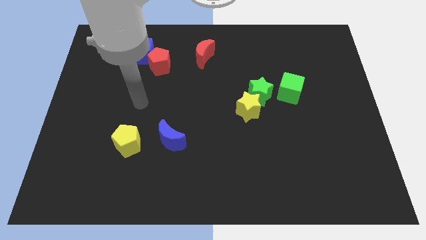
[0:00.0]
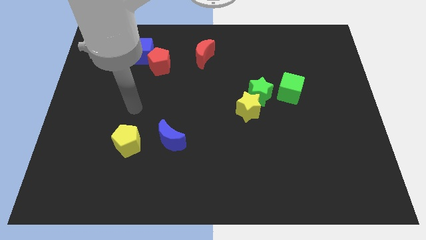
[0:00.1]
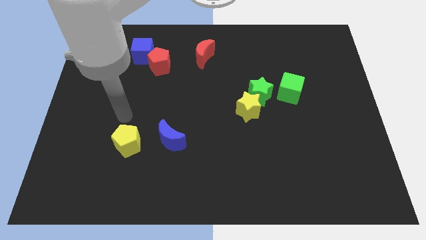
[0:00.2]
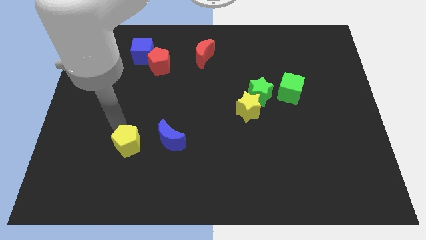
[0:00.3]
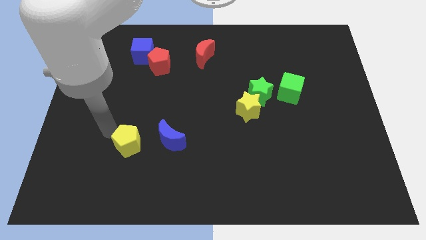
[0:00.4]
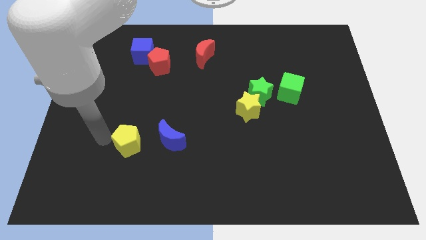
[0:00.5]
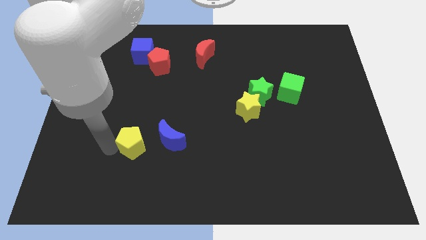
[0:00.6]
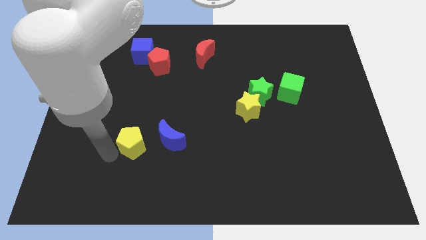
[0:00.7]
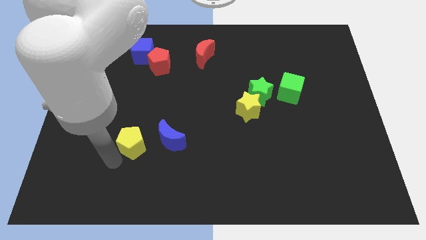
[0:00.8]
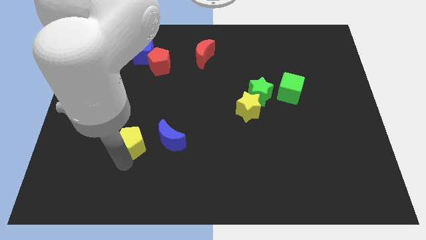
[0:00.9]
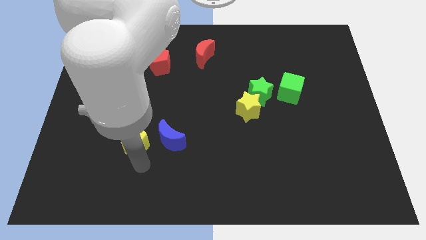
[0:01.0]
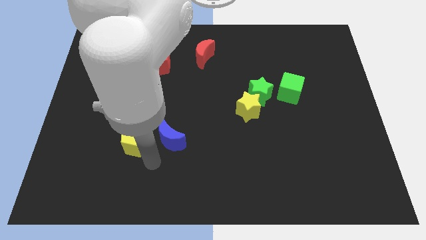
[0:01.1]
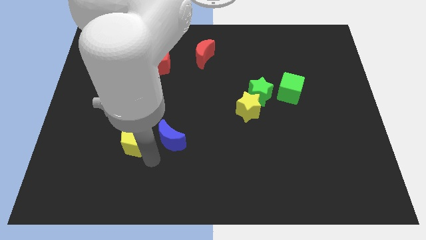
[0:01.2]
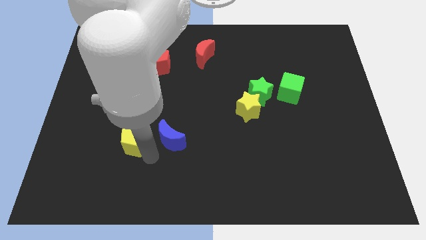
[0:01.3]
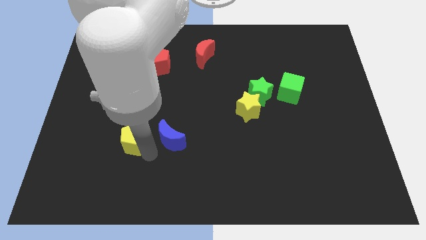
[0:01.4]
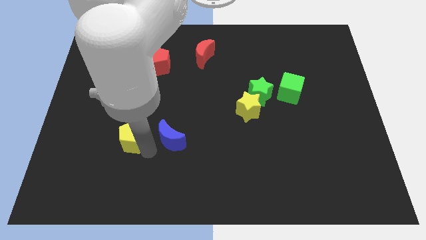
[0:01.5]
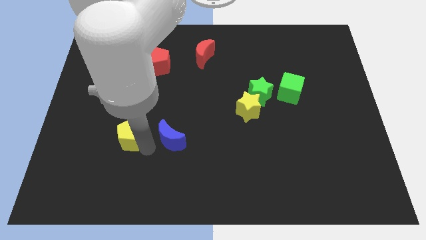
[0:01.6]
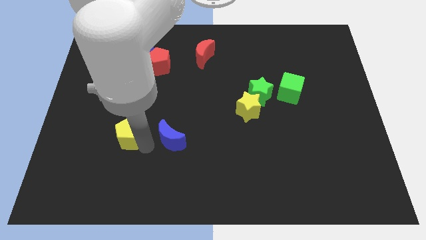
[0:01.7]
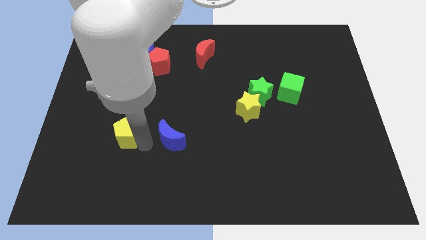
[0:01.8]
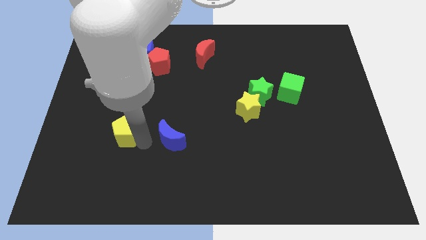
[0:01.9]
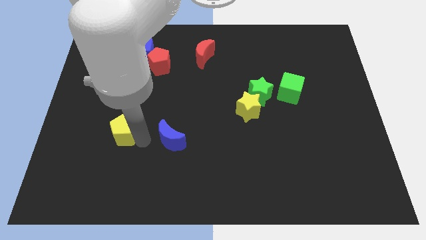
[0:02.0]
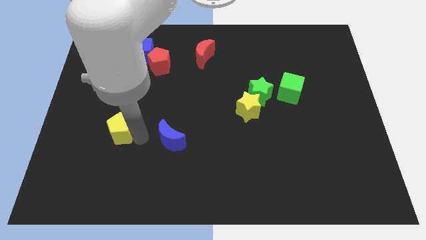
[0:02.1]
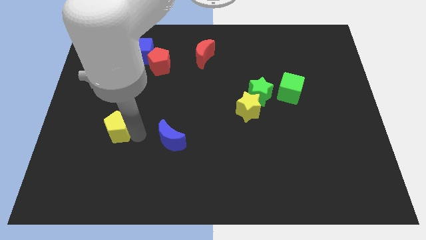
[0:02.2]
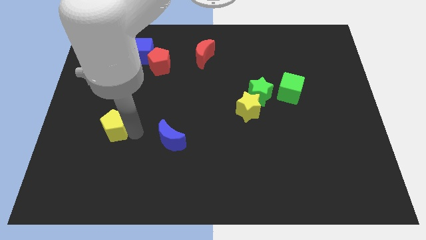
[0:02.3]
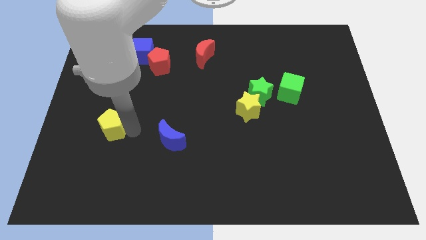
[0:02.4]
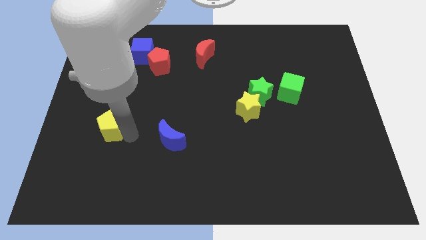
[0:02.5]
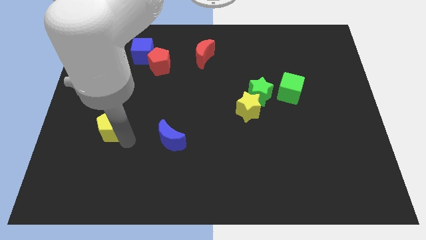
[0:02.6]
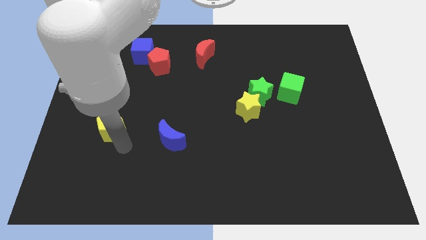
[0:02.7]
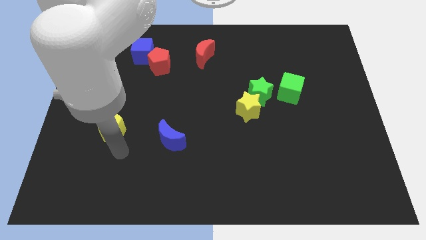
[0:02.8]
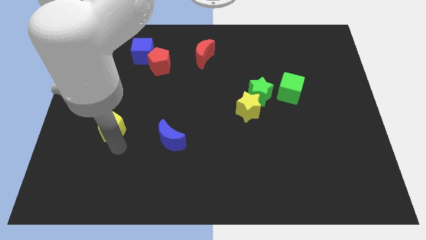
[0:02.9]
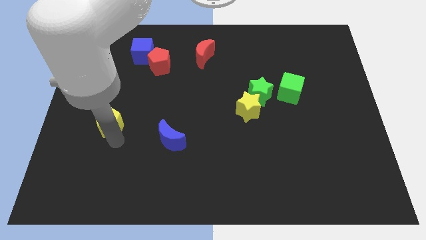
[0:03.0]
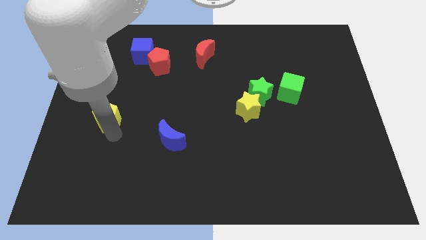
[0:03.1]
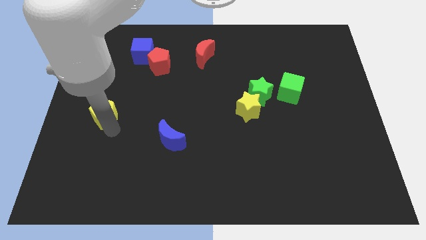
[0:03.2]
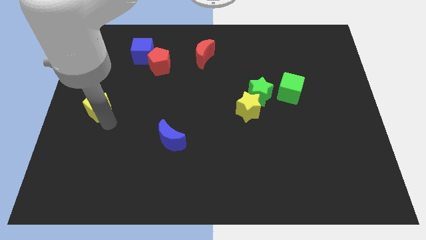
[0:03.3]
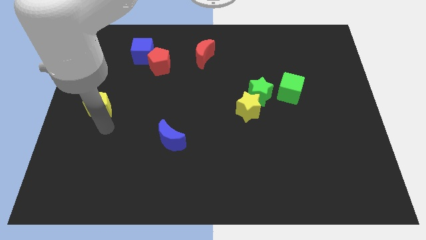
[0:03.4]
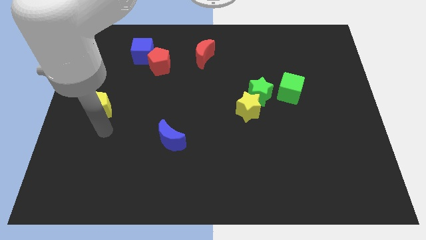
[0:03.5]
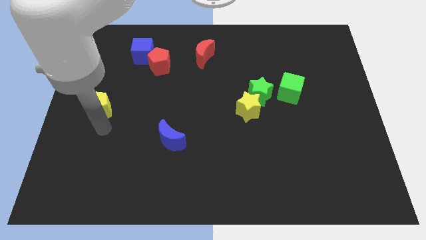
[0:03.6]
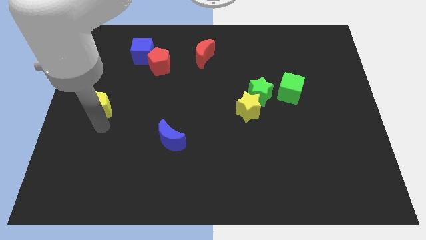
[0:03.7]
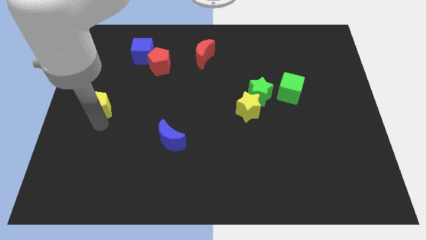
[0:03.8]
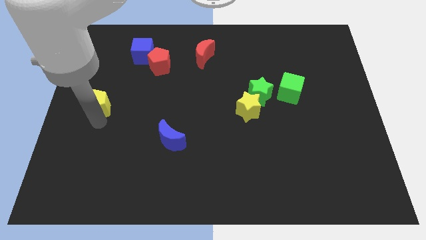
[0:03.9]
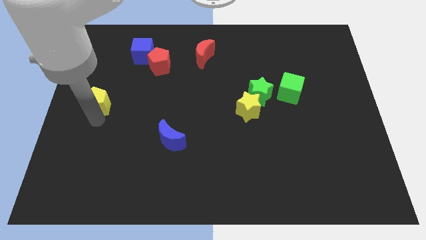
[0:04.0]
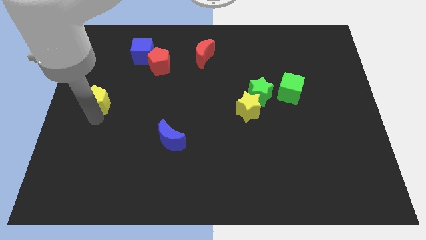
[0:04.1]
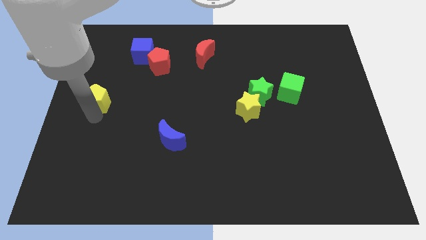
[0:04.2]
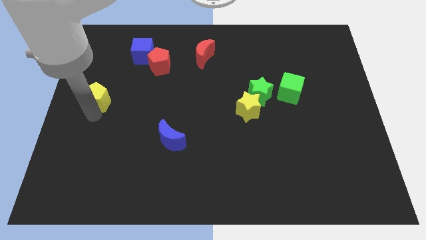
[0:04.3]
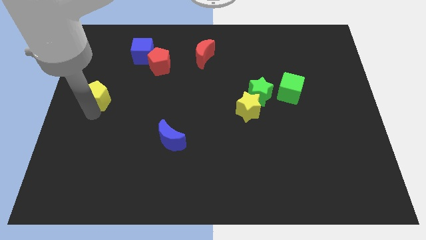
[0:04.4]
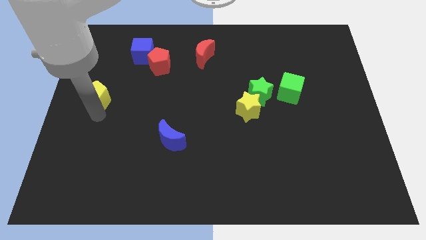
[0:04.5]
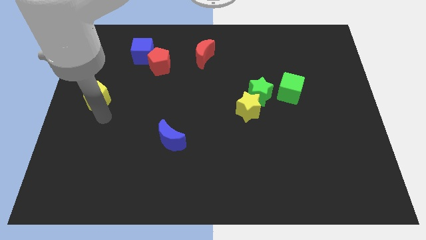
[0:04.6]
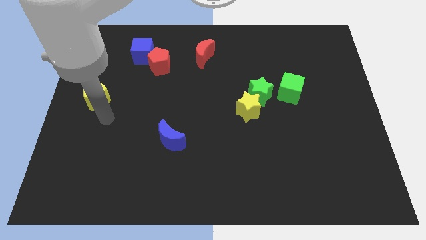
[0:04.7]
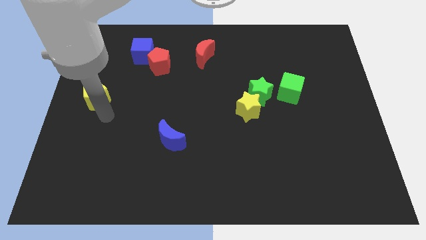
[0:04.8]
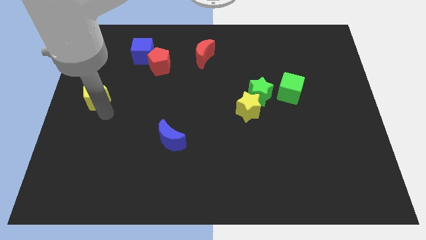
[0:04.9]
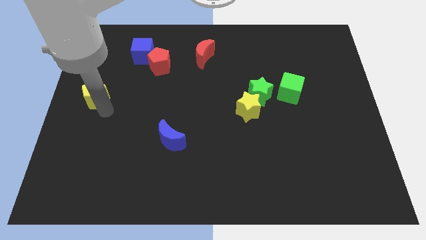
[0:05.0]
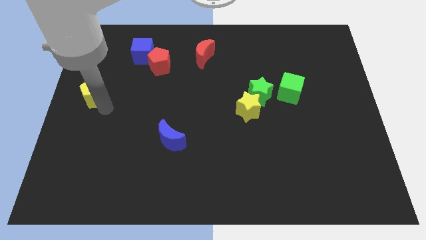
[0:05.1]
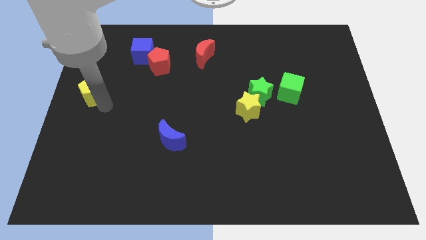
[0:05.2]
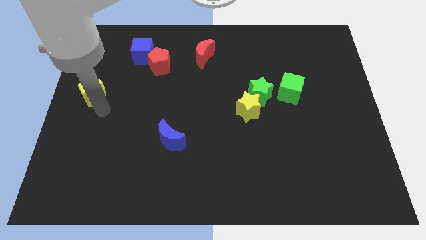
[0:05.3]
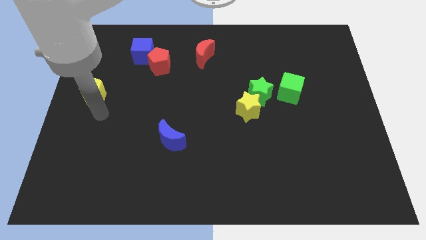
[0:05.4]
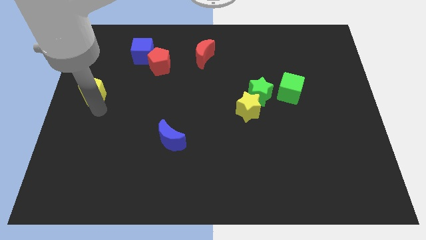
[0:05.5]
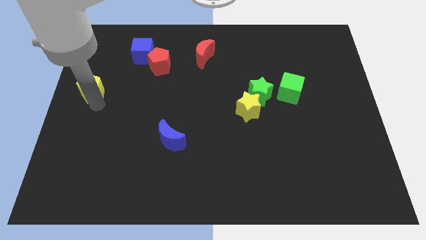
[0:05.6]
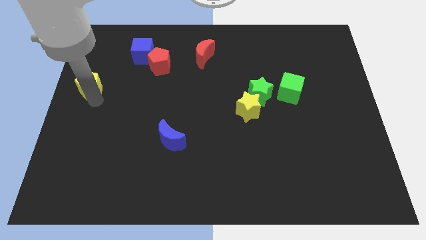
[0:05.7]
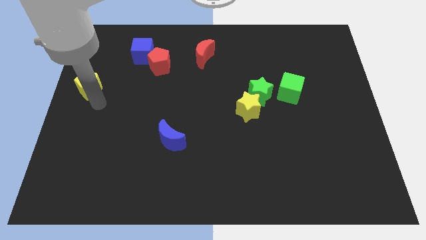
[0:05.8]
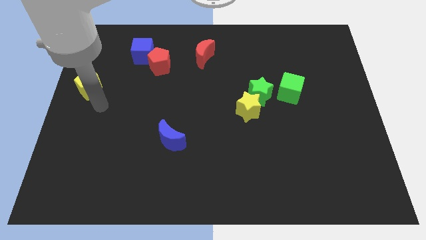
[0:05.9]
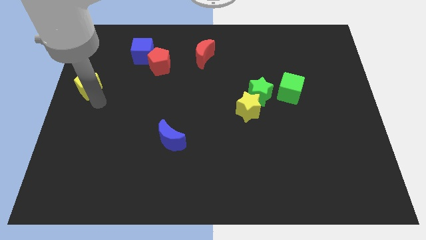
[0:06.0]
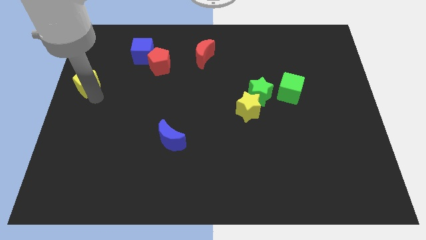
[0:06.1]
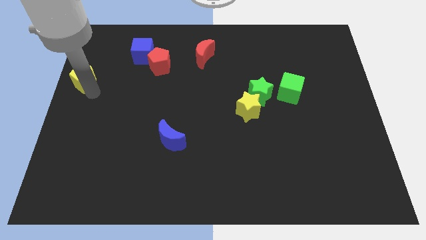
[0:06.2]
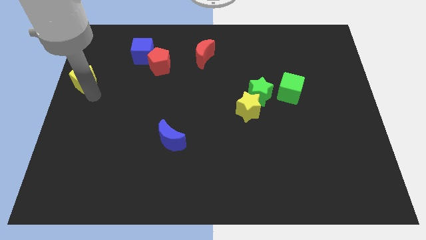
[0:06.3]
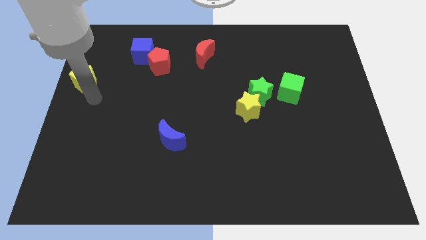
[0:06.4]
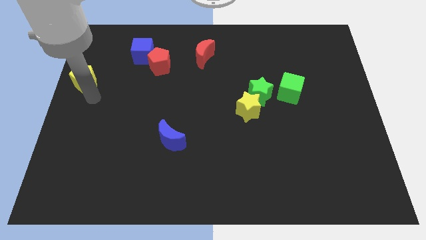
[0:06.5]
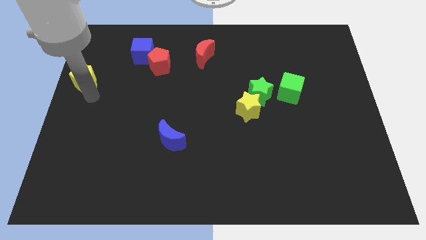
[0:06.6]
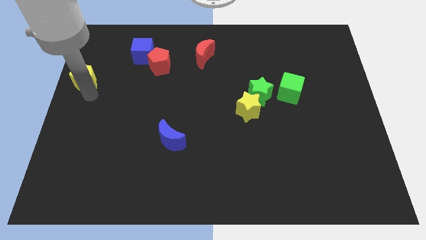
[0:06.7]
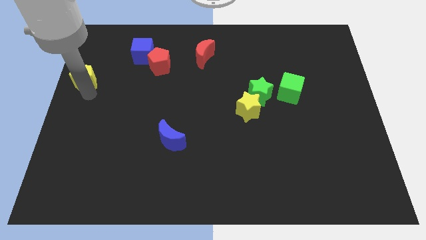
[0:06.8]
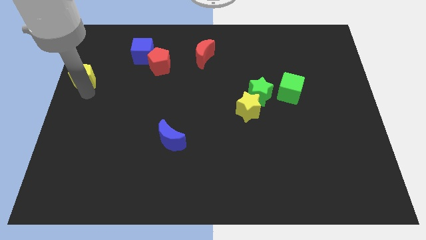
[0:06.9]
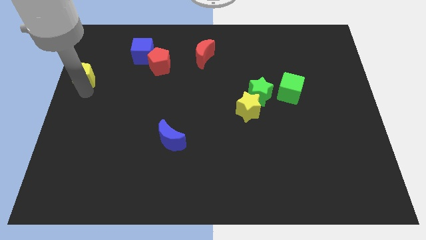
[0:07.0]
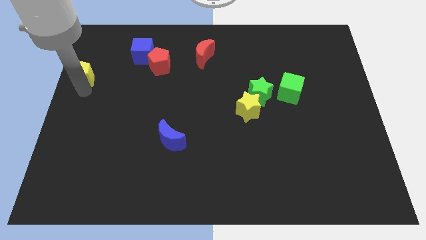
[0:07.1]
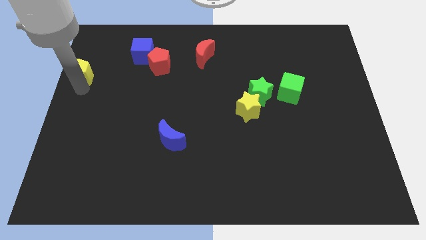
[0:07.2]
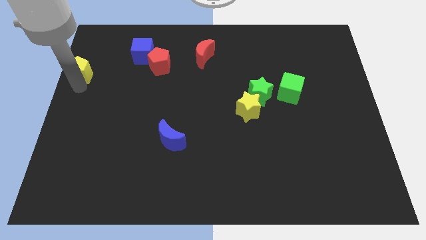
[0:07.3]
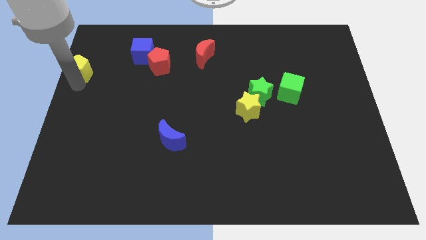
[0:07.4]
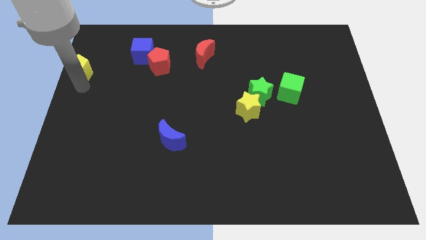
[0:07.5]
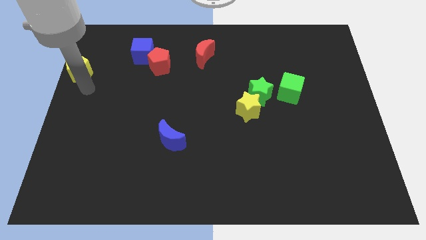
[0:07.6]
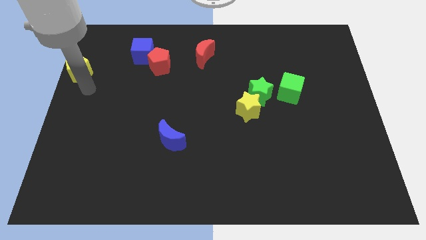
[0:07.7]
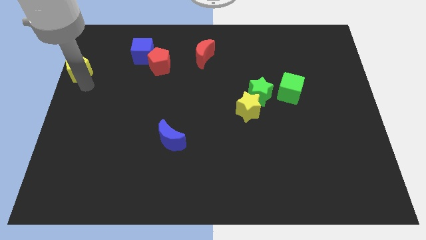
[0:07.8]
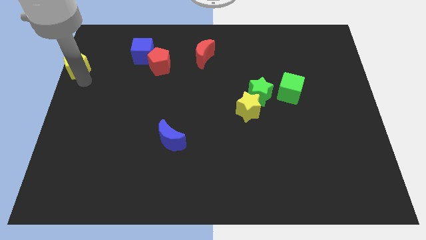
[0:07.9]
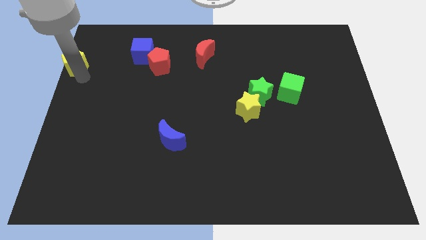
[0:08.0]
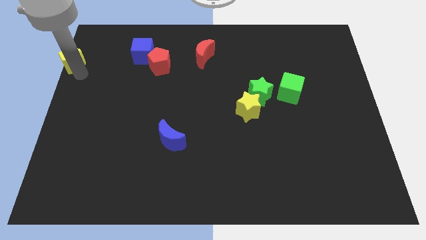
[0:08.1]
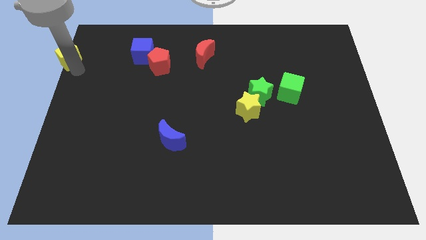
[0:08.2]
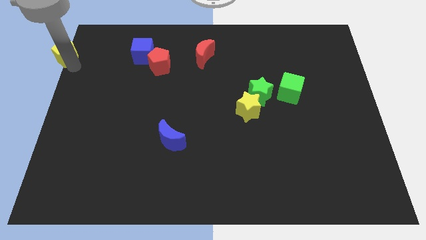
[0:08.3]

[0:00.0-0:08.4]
push the yellow pentagon to the top left corner
